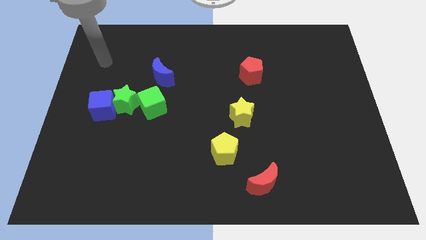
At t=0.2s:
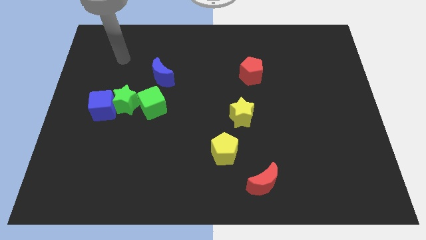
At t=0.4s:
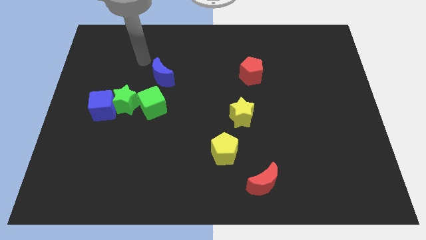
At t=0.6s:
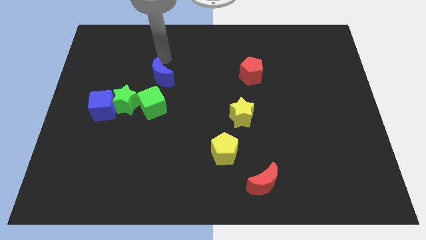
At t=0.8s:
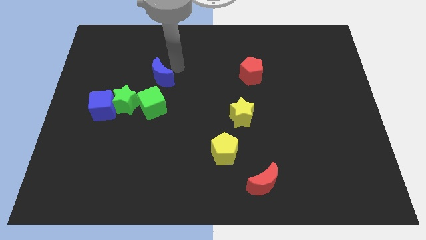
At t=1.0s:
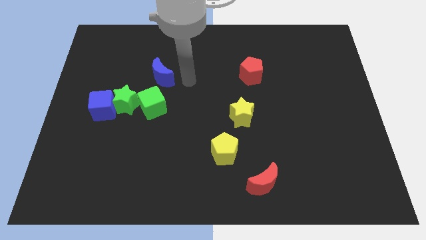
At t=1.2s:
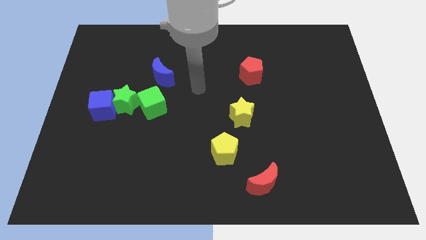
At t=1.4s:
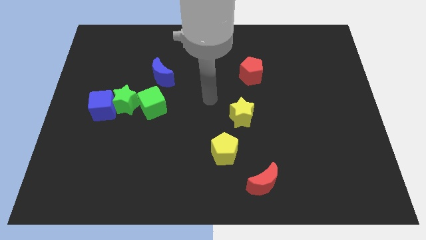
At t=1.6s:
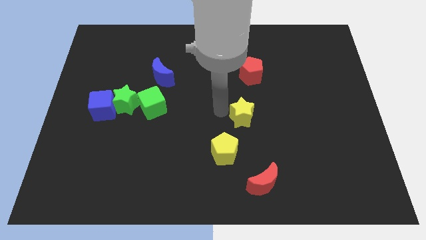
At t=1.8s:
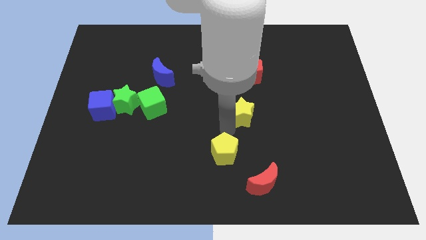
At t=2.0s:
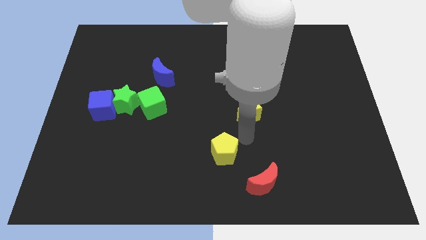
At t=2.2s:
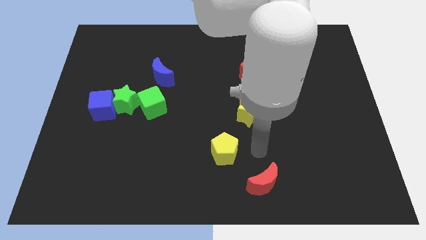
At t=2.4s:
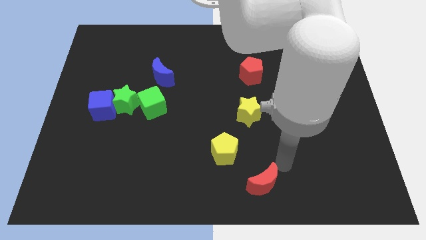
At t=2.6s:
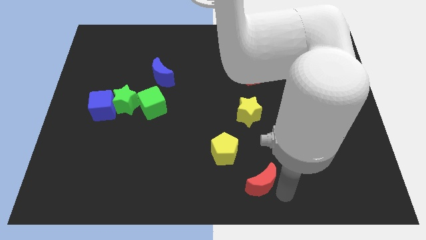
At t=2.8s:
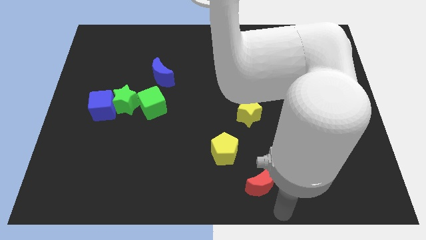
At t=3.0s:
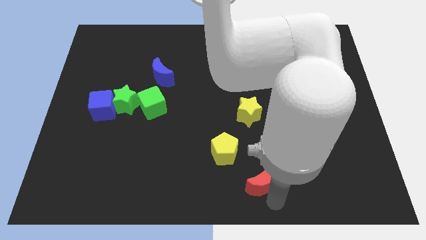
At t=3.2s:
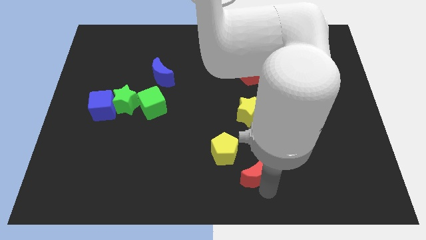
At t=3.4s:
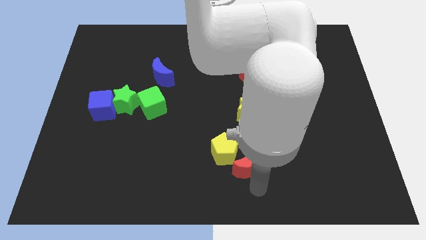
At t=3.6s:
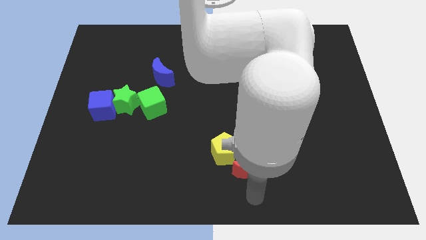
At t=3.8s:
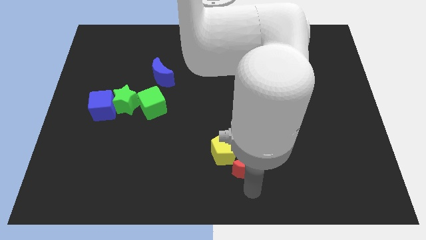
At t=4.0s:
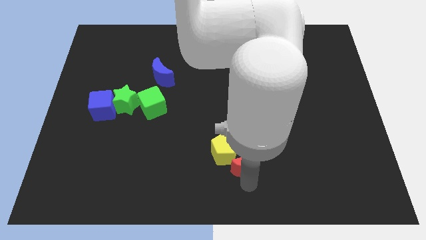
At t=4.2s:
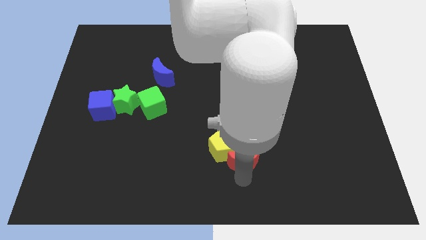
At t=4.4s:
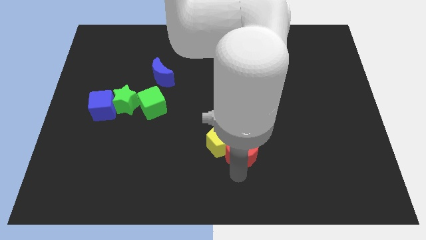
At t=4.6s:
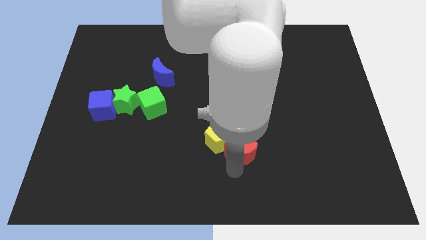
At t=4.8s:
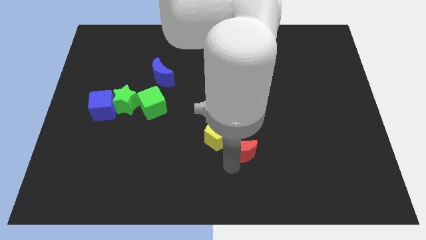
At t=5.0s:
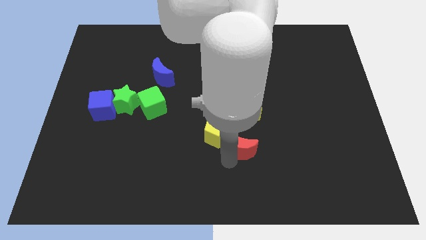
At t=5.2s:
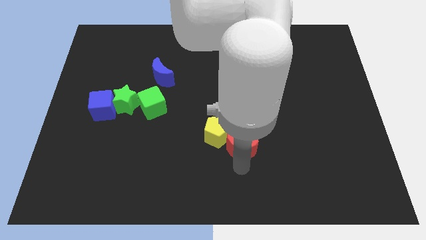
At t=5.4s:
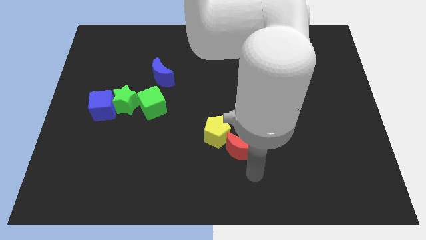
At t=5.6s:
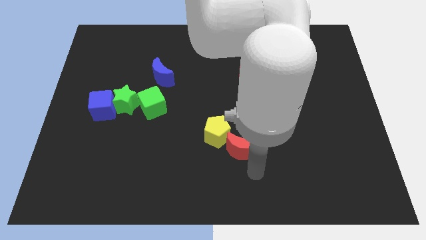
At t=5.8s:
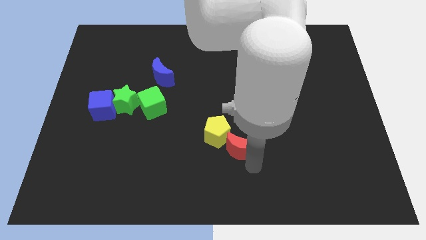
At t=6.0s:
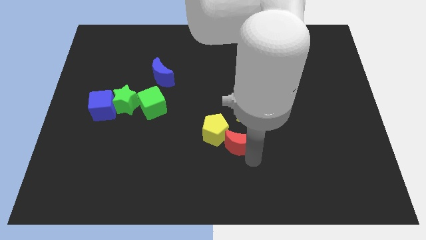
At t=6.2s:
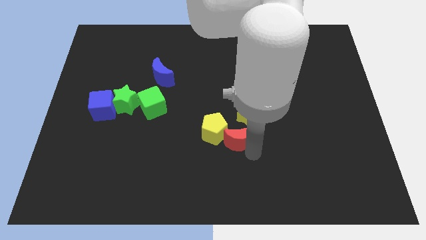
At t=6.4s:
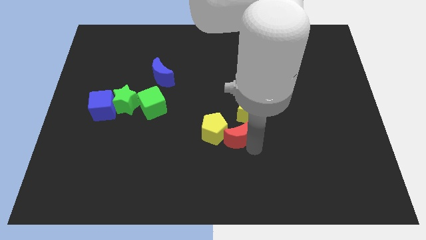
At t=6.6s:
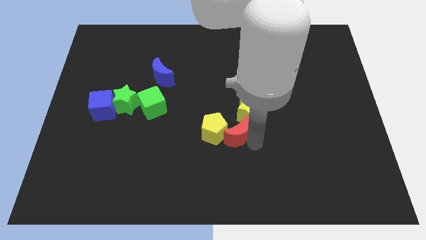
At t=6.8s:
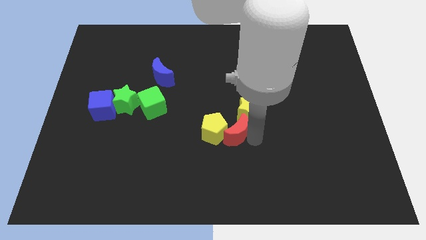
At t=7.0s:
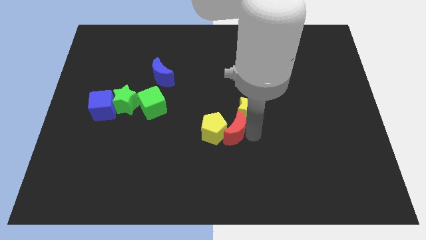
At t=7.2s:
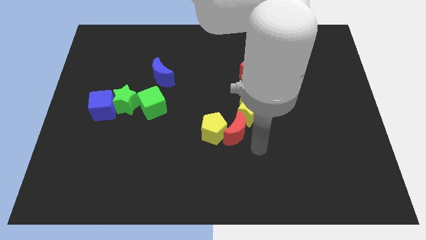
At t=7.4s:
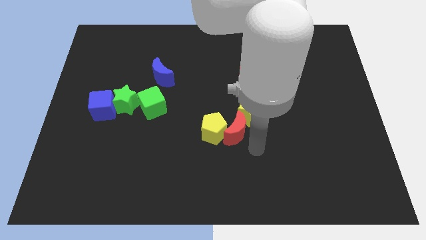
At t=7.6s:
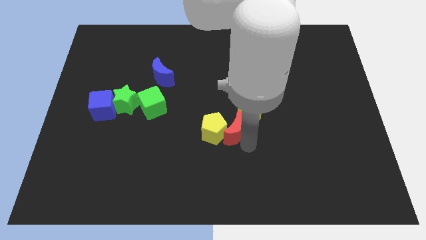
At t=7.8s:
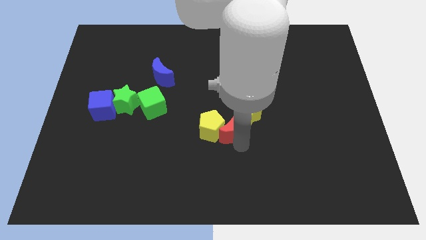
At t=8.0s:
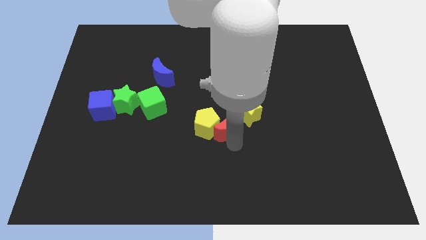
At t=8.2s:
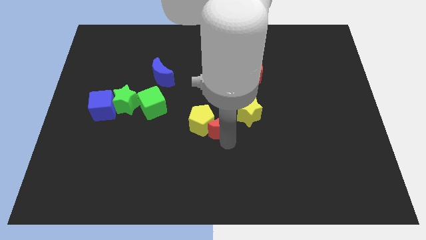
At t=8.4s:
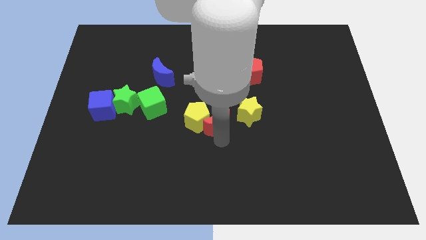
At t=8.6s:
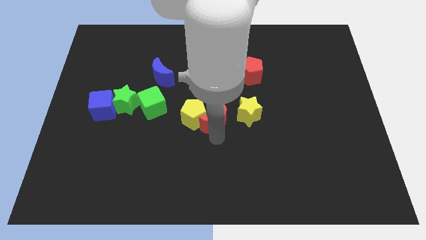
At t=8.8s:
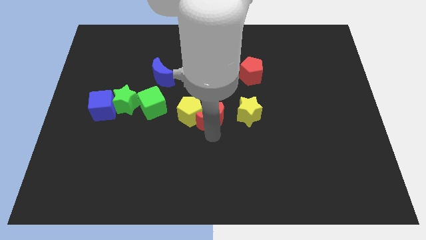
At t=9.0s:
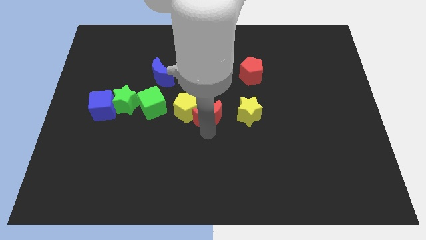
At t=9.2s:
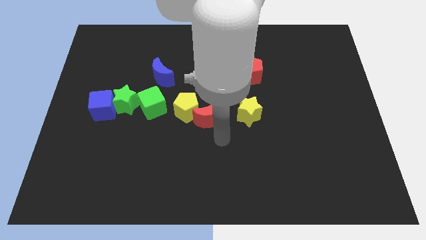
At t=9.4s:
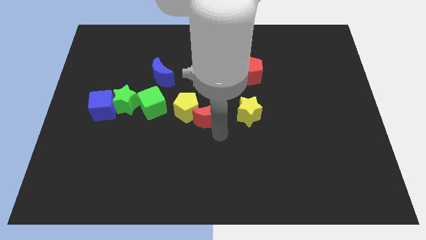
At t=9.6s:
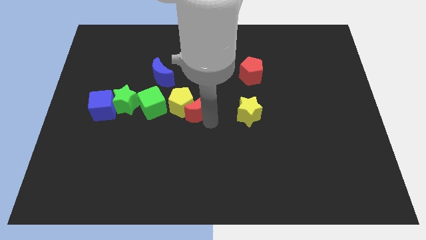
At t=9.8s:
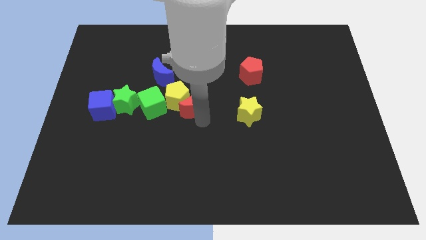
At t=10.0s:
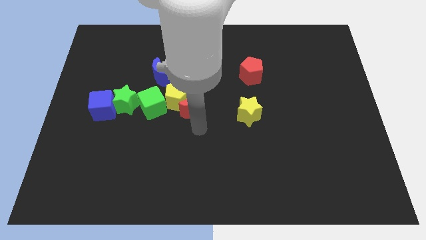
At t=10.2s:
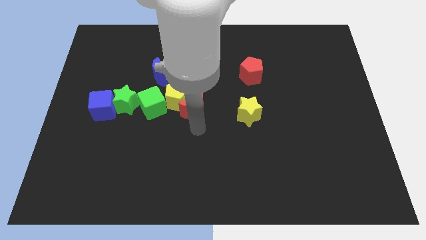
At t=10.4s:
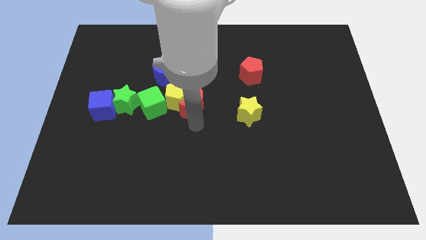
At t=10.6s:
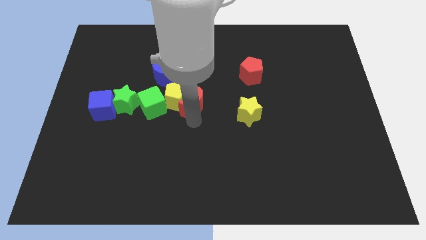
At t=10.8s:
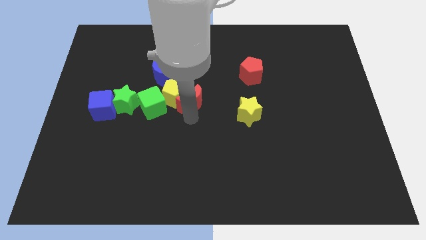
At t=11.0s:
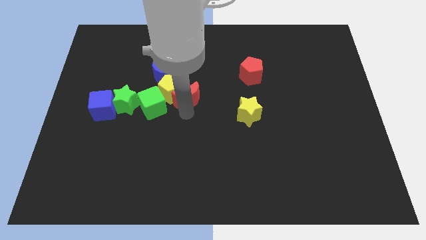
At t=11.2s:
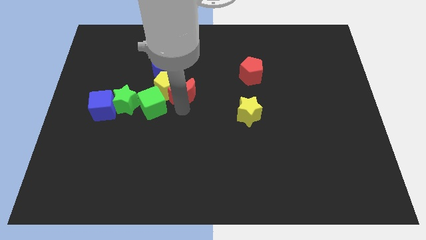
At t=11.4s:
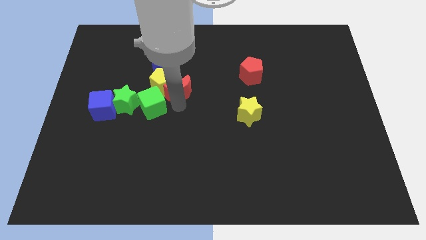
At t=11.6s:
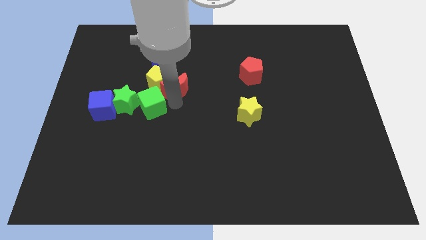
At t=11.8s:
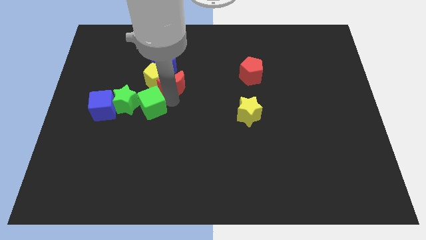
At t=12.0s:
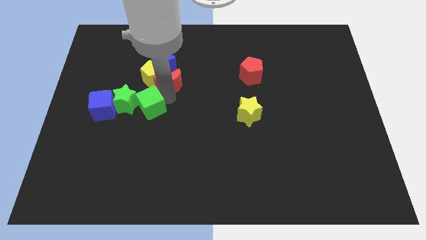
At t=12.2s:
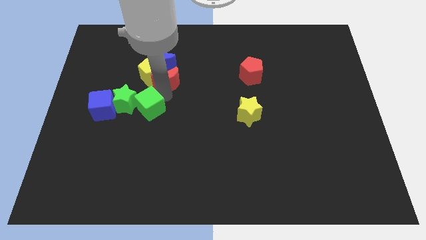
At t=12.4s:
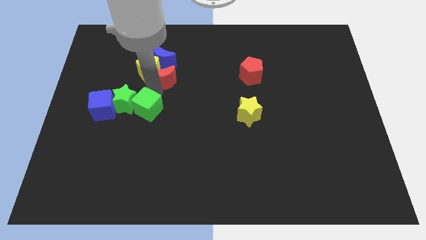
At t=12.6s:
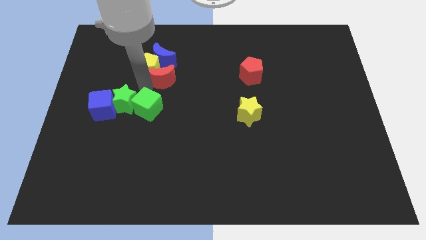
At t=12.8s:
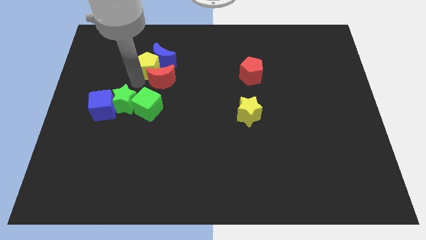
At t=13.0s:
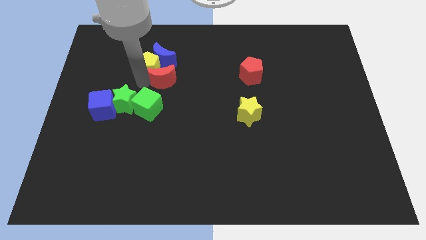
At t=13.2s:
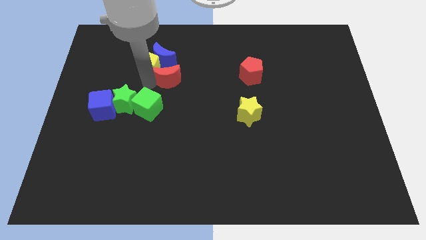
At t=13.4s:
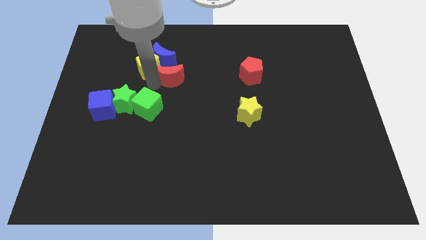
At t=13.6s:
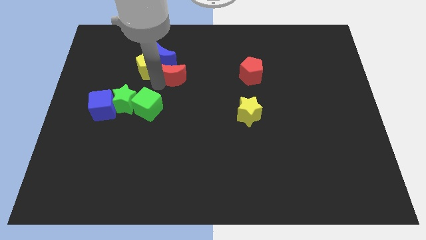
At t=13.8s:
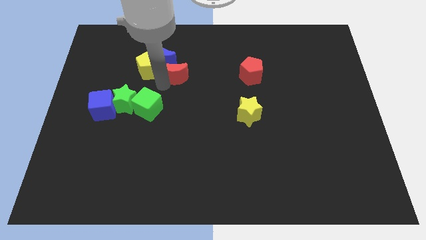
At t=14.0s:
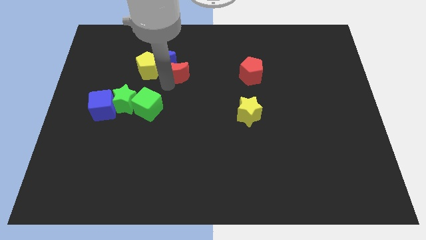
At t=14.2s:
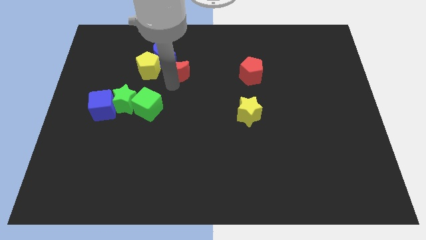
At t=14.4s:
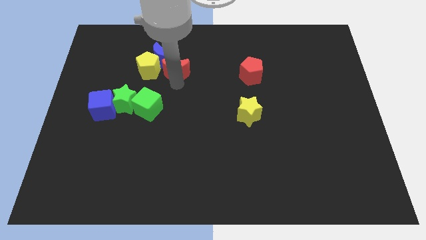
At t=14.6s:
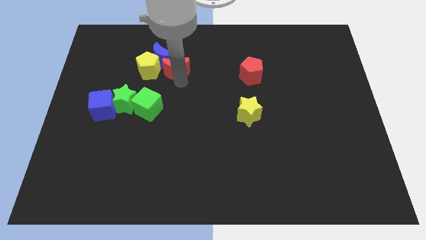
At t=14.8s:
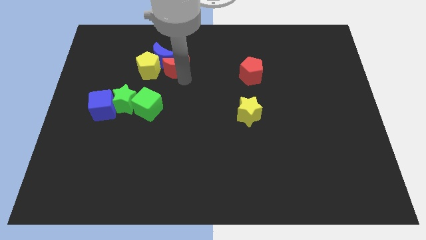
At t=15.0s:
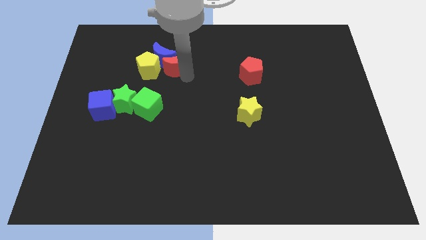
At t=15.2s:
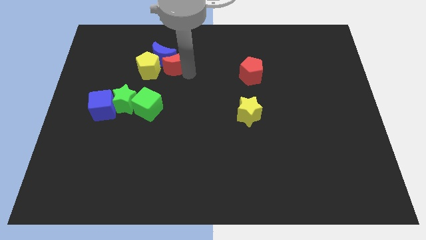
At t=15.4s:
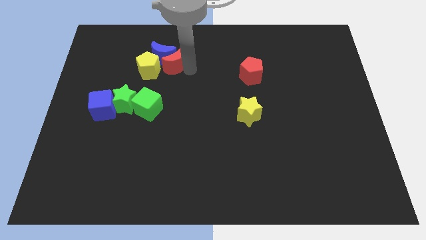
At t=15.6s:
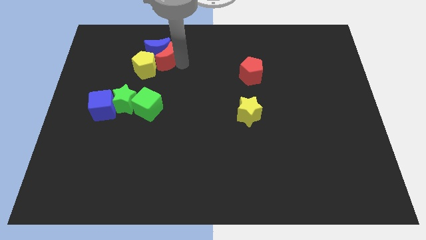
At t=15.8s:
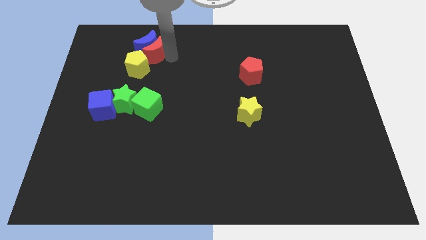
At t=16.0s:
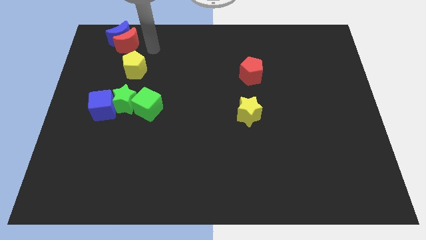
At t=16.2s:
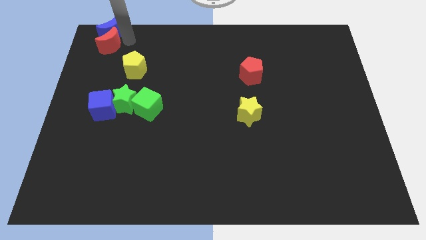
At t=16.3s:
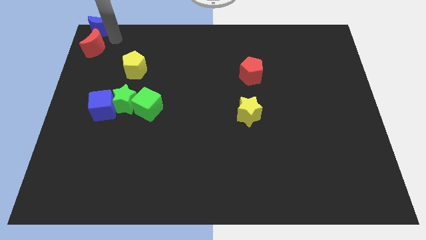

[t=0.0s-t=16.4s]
slide the red moon to the top left
